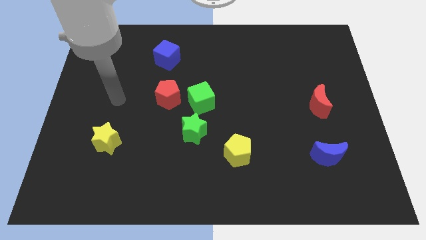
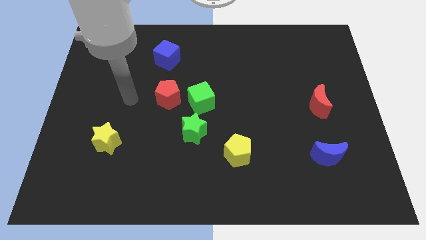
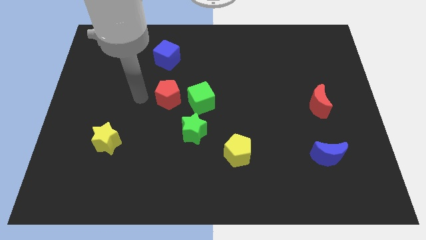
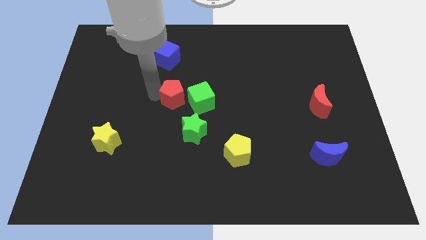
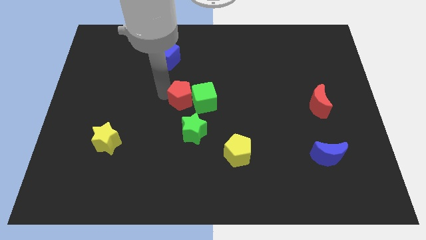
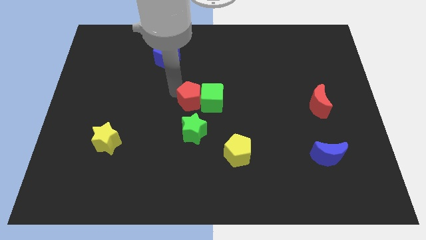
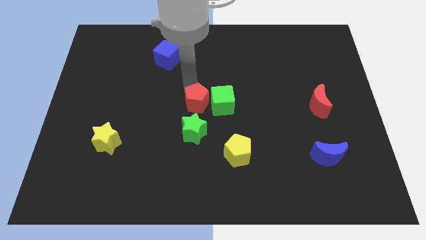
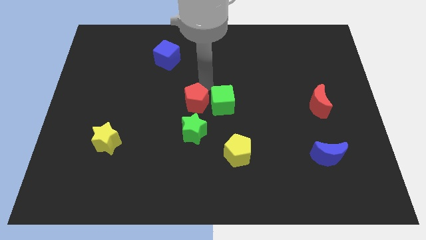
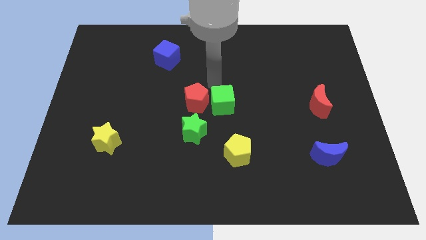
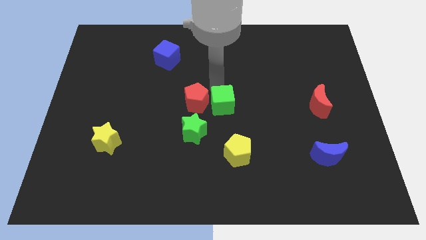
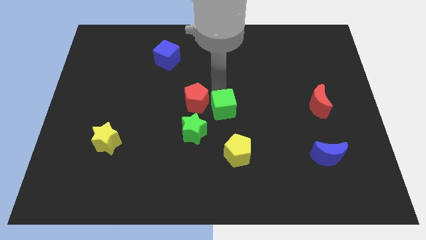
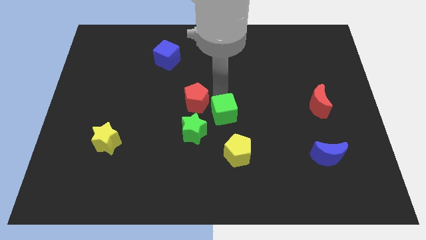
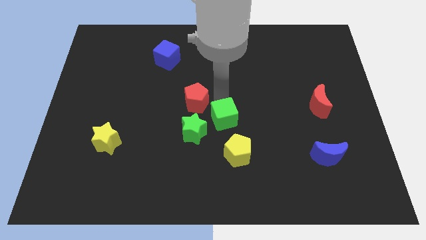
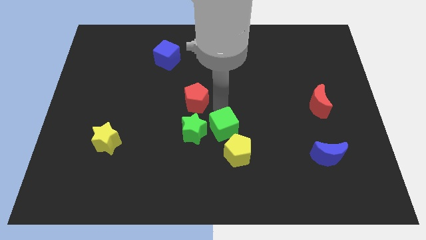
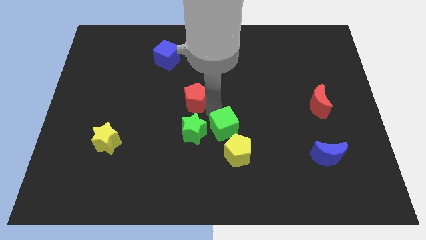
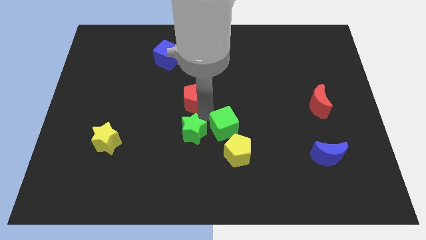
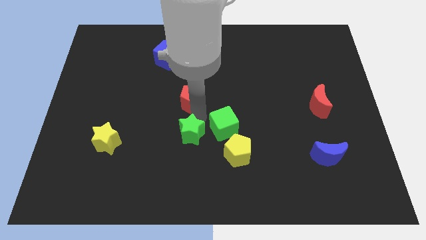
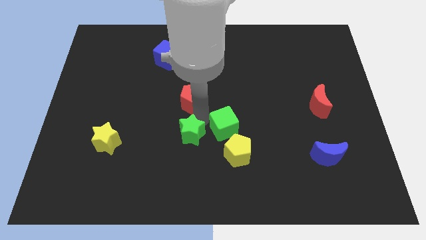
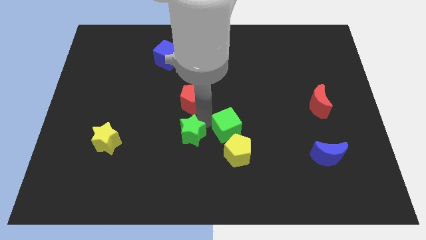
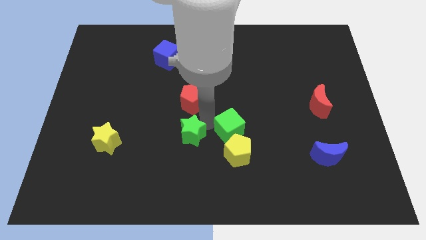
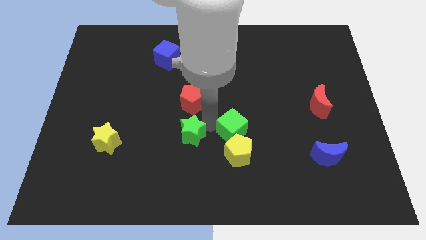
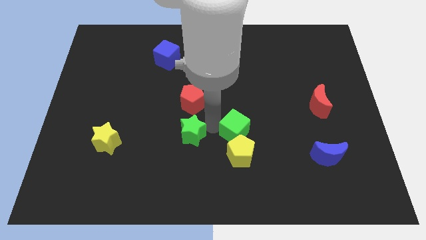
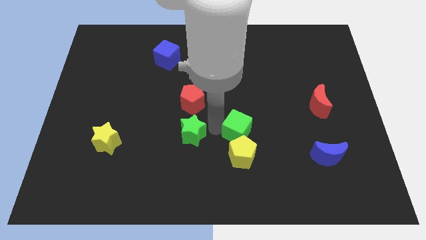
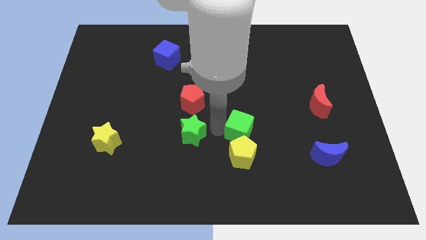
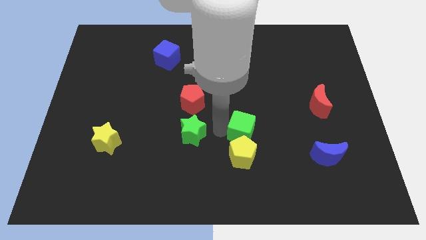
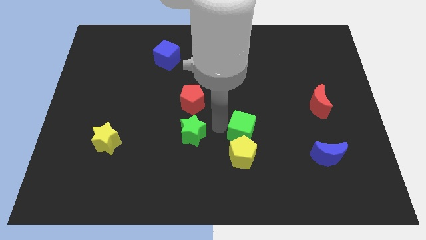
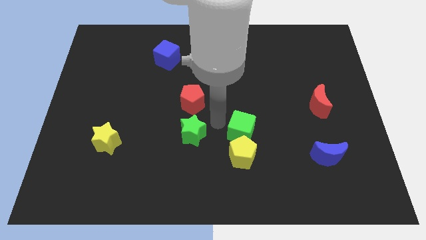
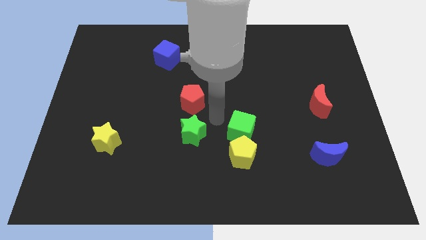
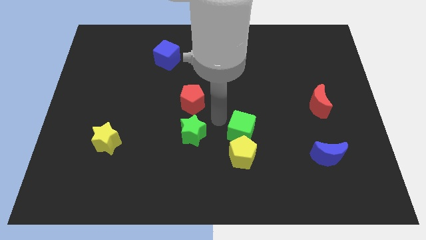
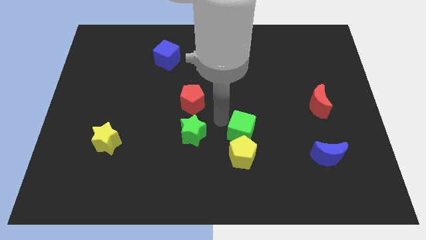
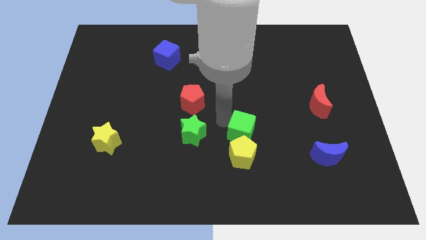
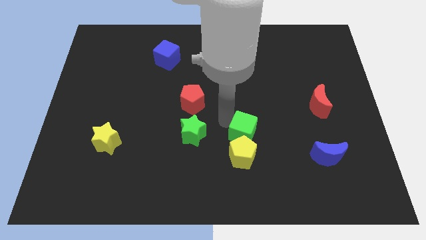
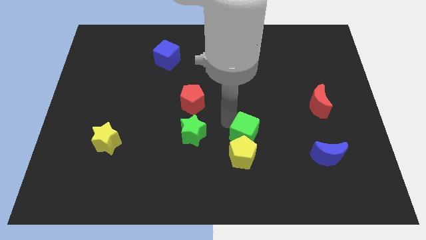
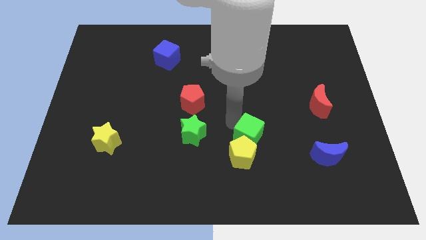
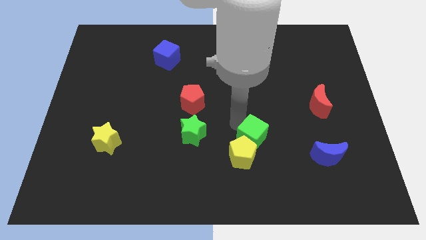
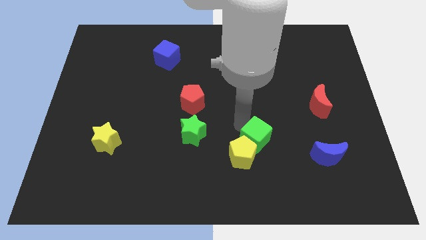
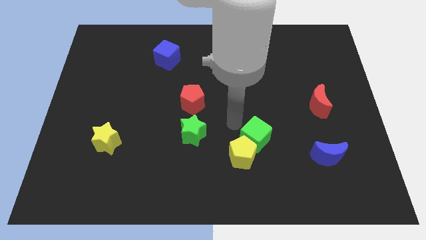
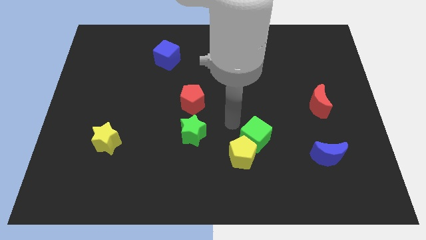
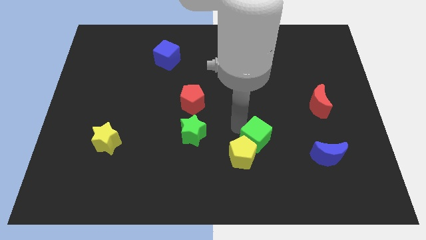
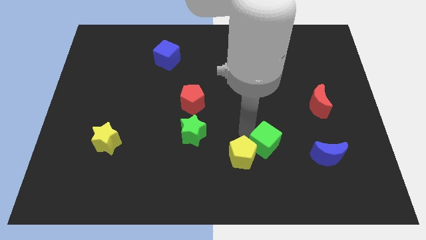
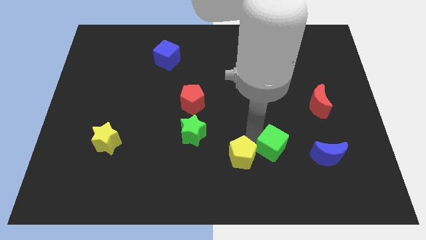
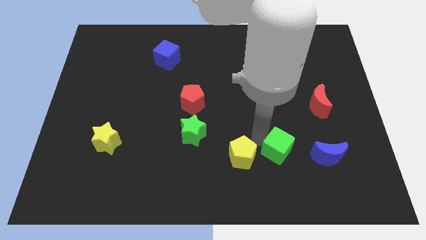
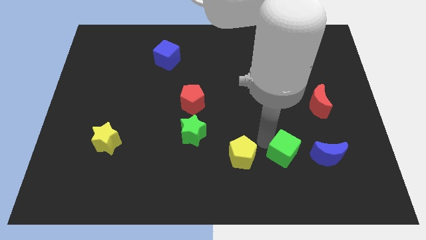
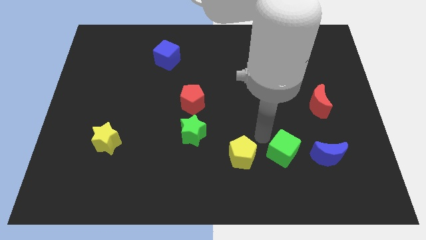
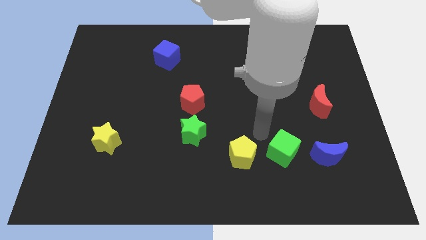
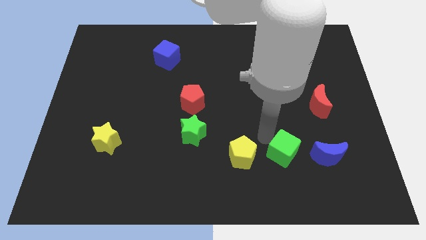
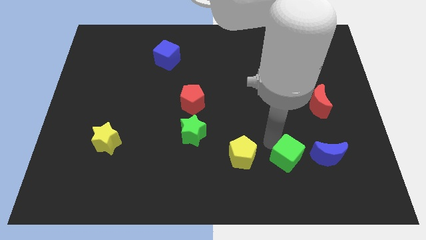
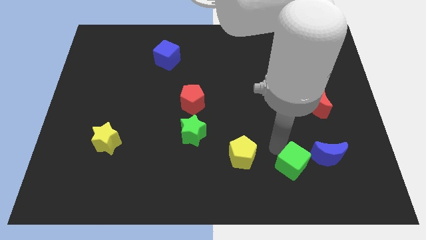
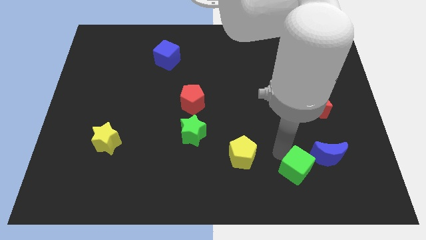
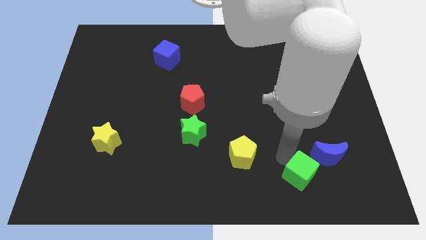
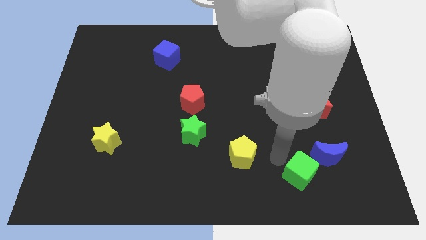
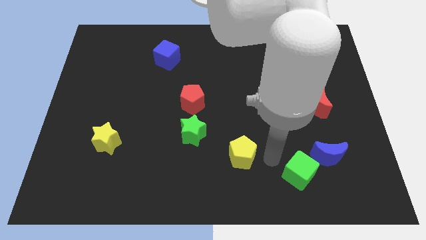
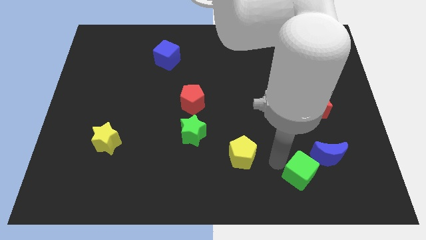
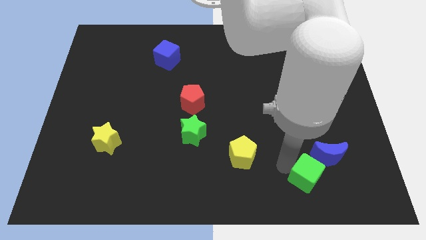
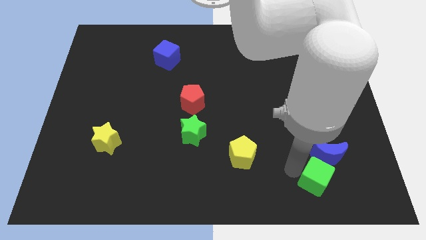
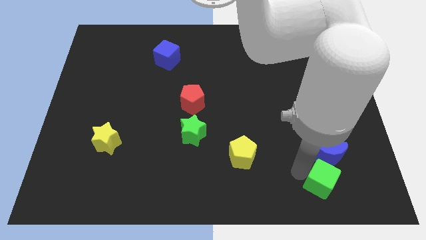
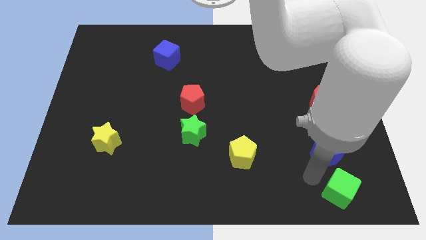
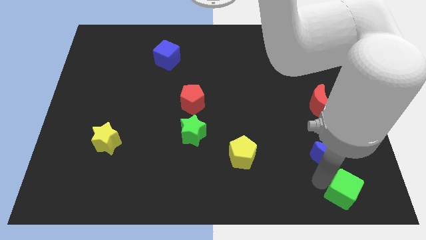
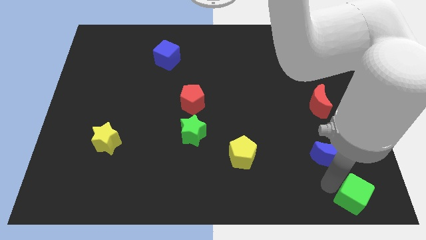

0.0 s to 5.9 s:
put the green cube to the bottom right corner

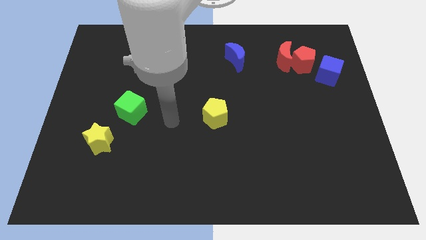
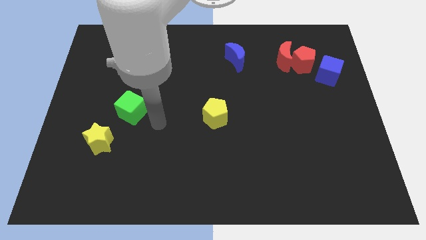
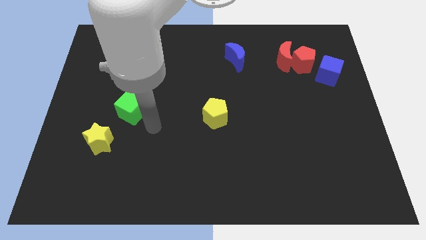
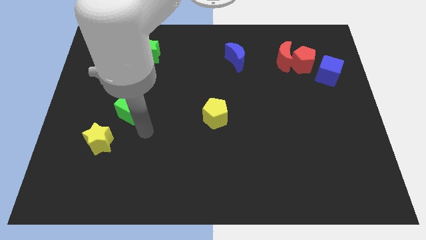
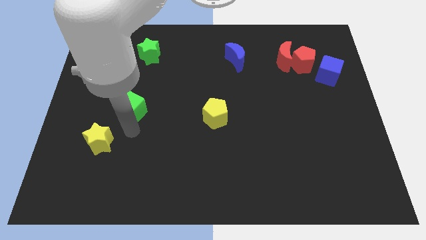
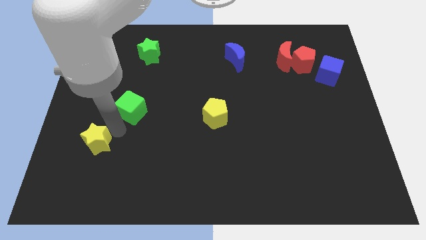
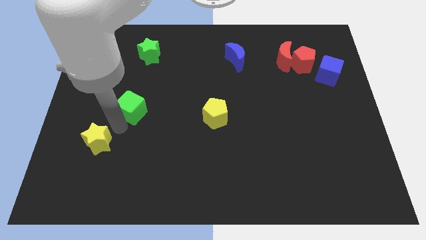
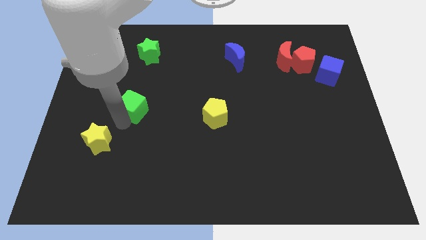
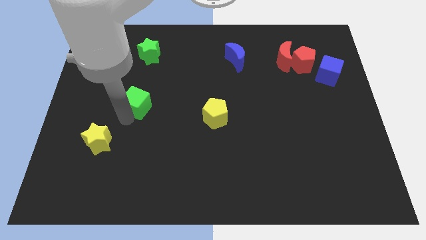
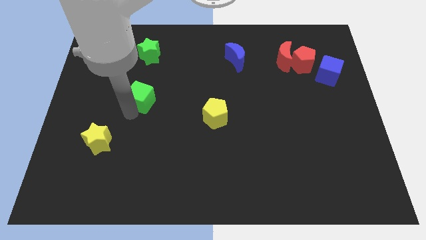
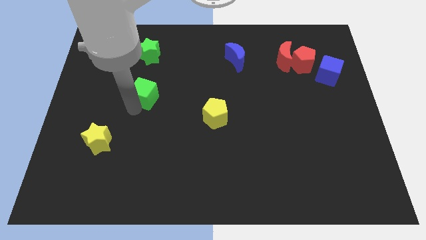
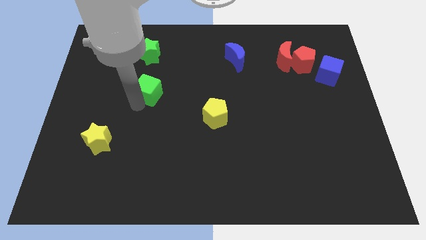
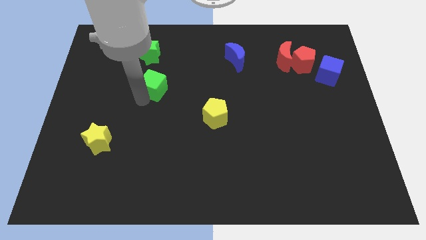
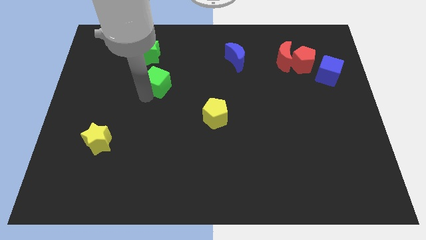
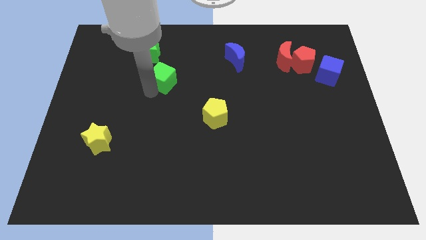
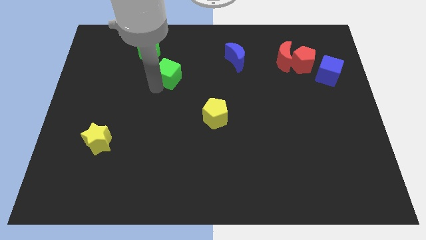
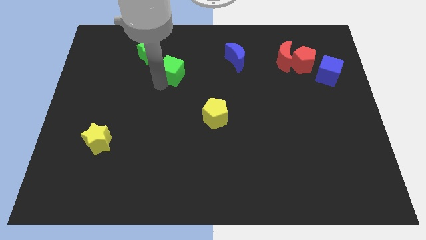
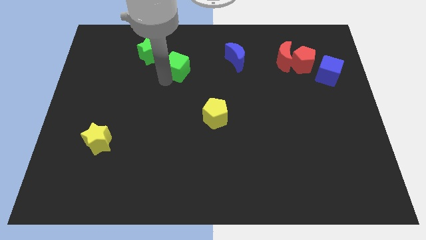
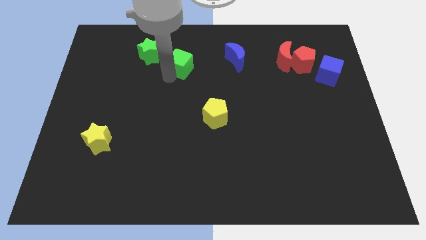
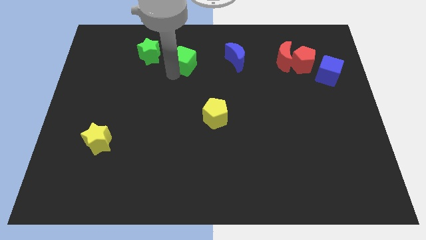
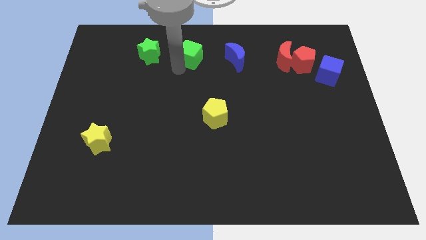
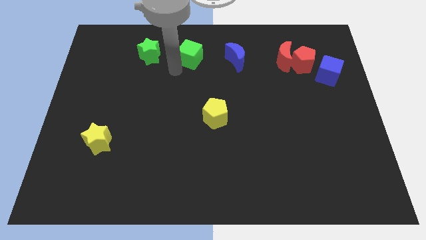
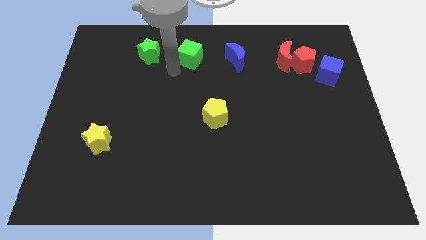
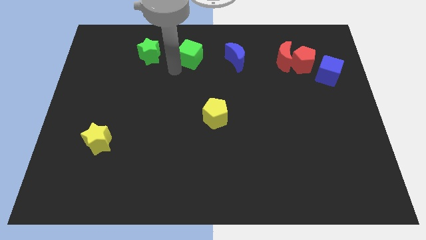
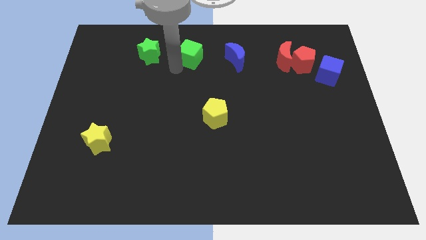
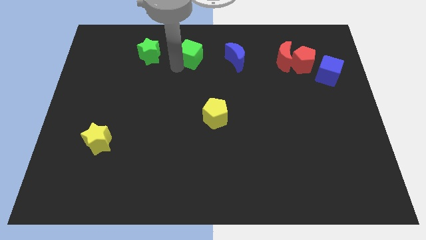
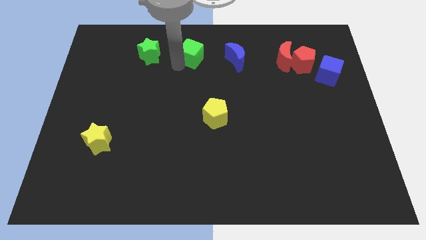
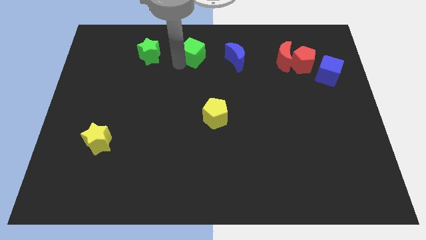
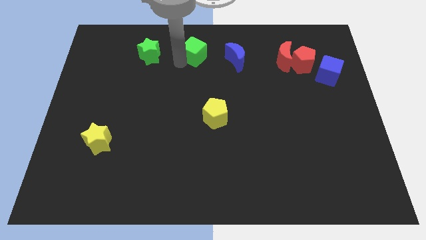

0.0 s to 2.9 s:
slide the green cube to the towards your base
